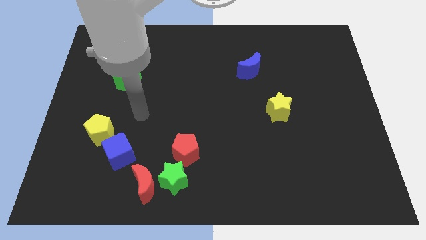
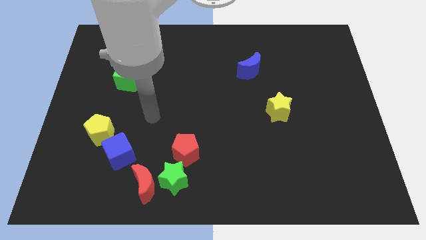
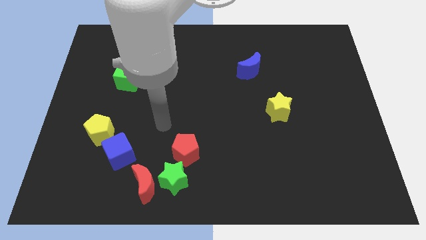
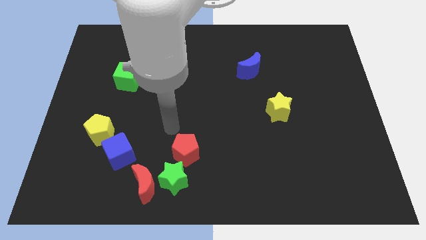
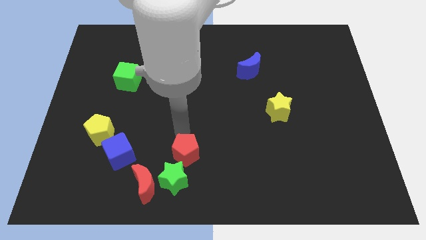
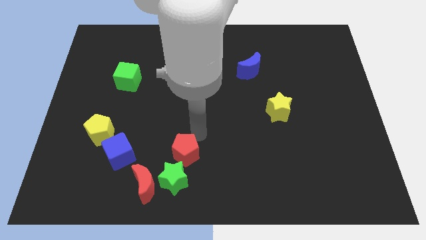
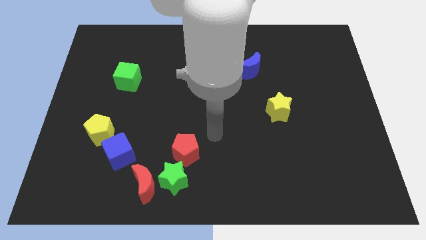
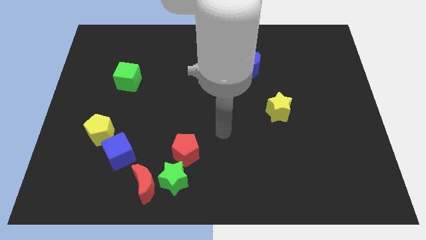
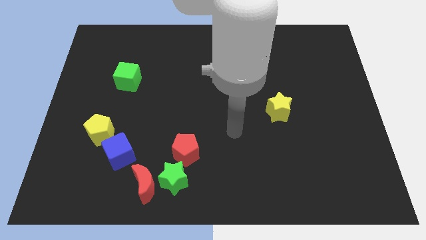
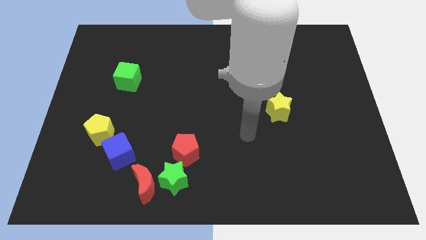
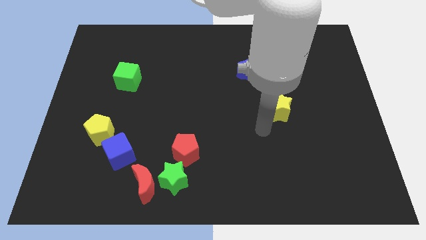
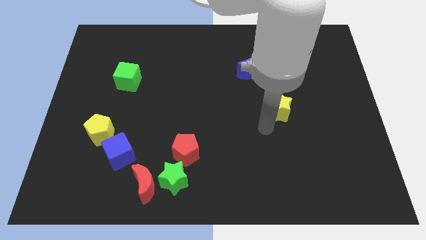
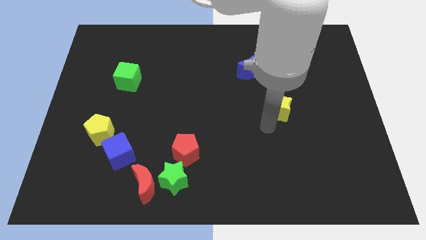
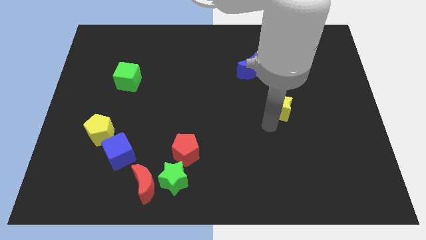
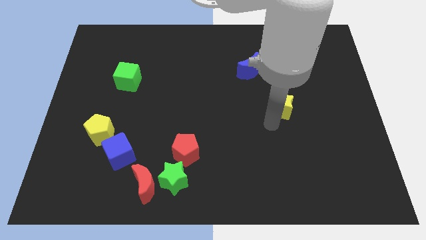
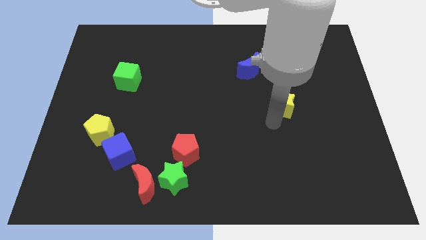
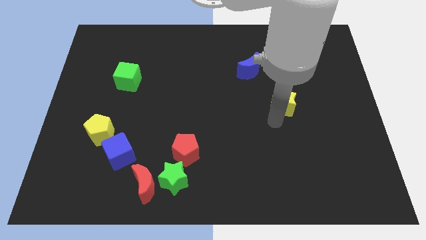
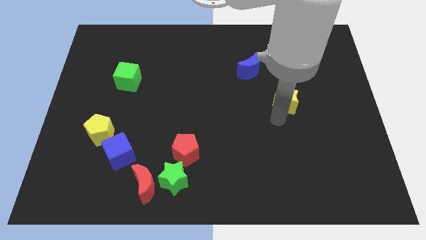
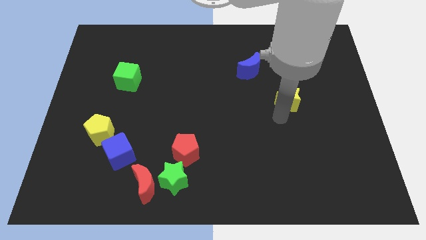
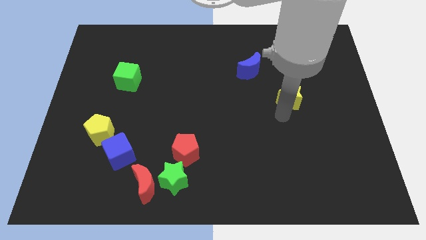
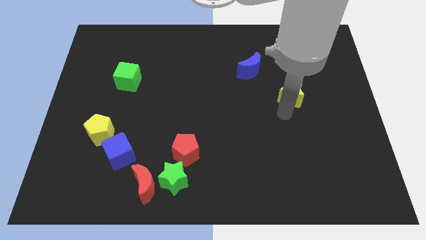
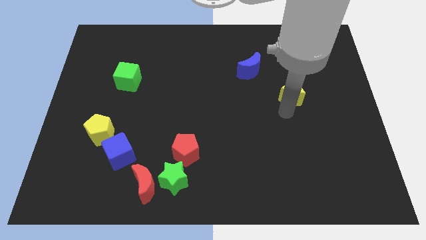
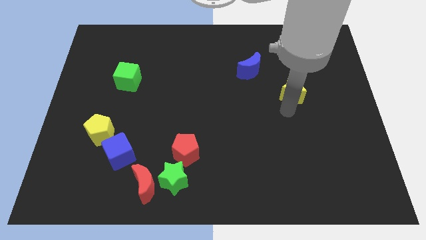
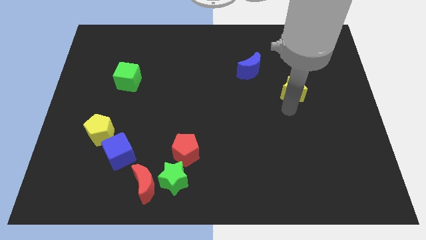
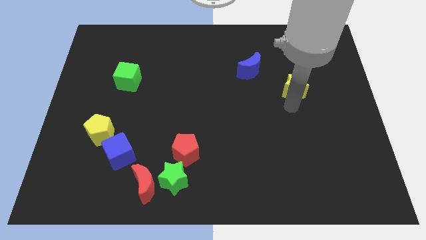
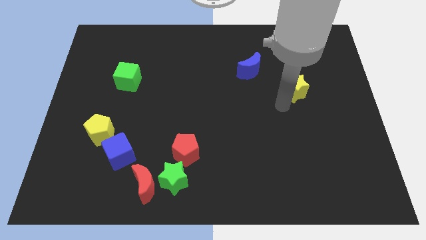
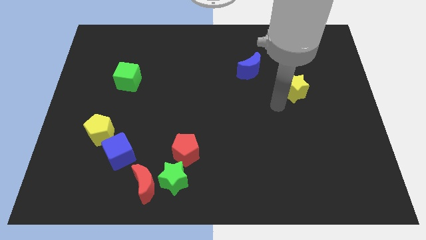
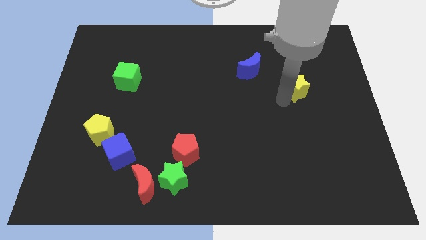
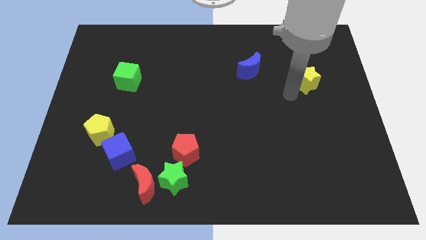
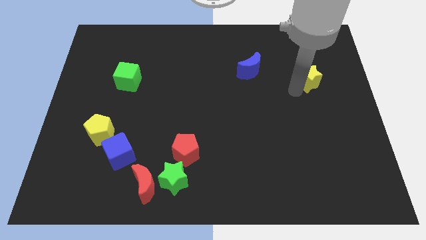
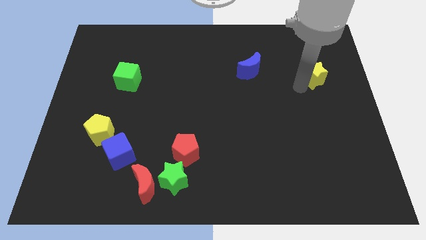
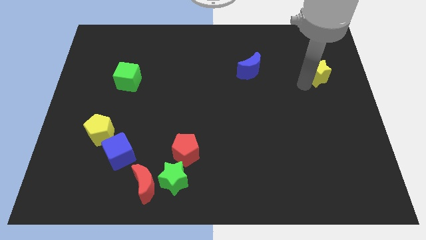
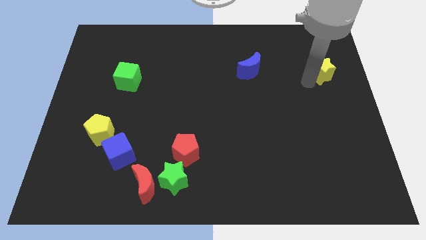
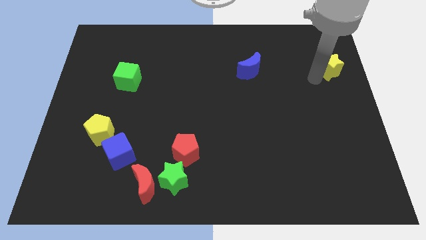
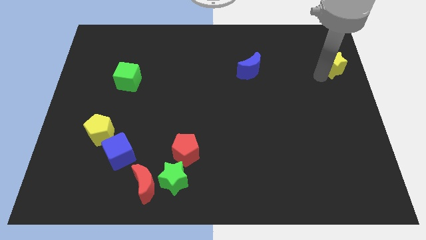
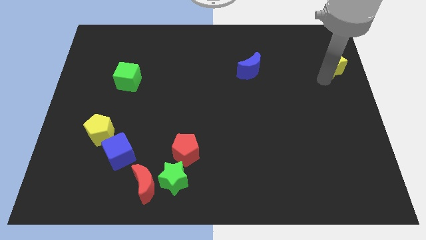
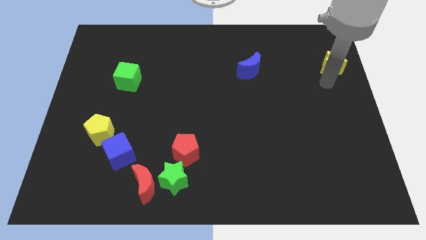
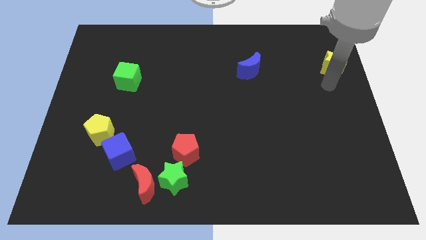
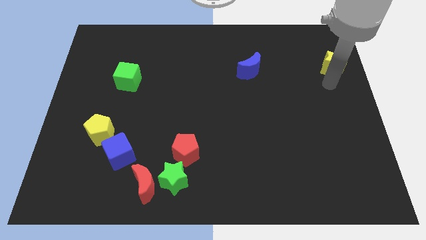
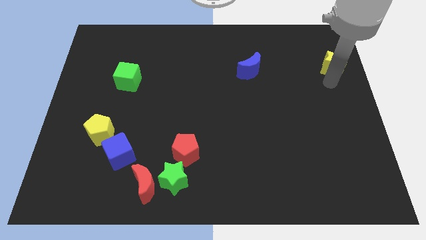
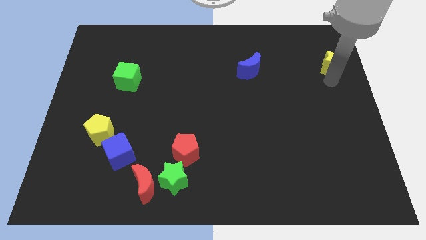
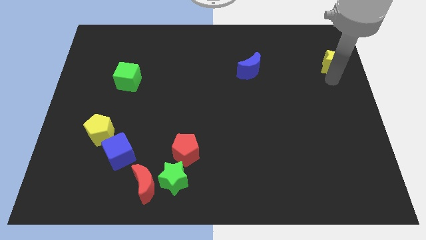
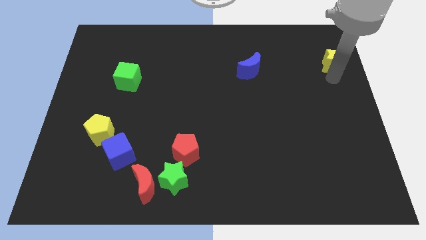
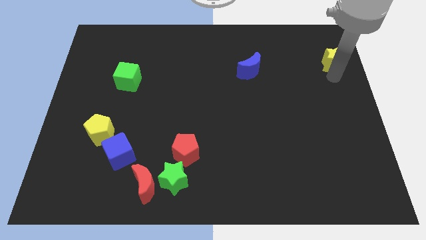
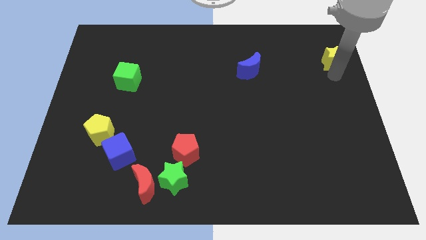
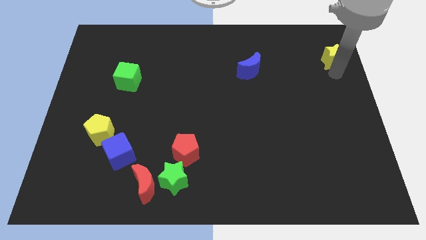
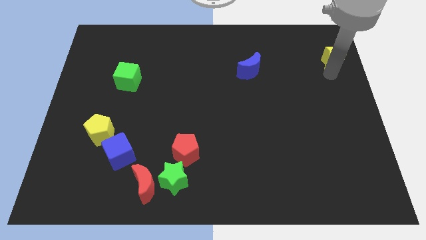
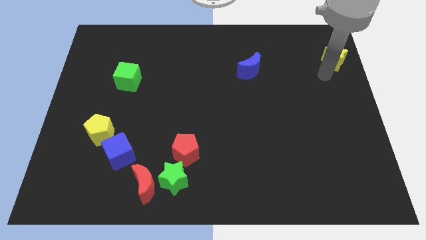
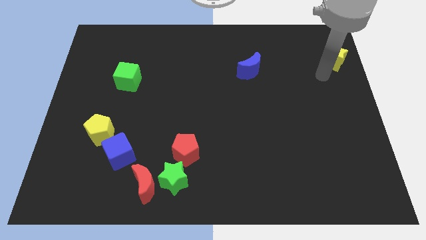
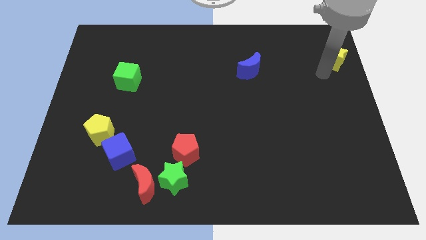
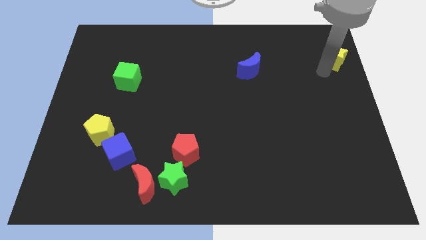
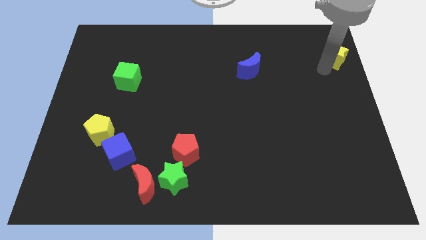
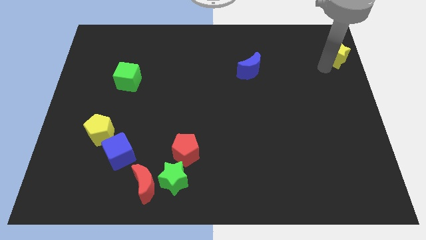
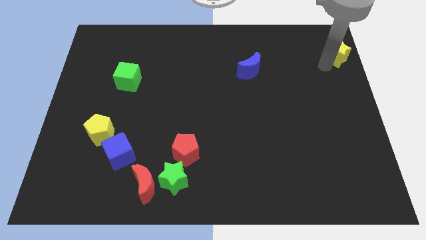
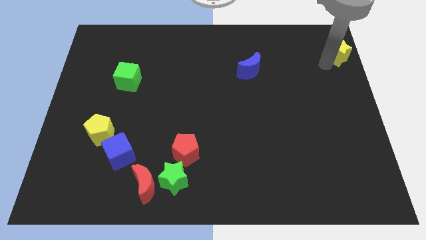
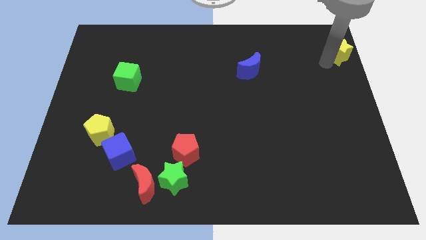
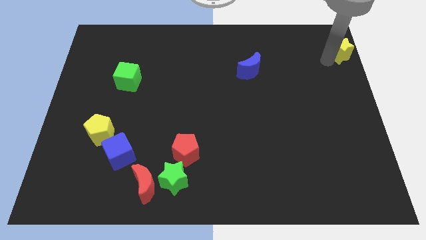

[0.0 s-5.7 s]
slide the yellow star to the top right of the board

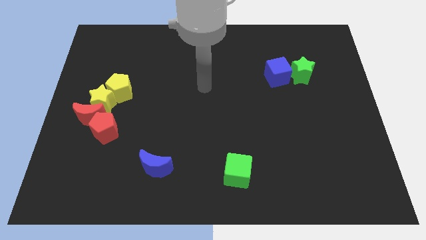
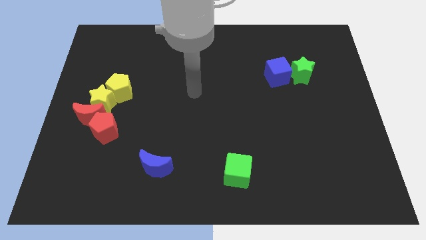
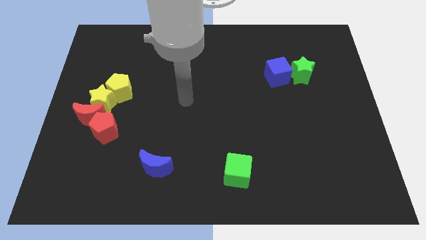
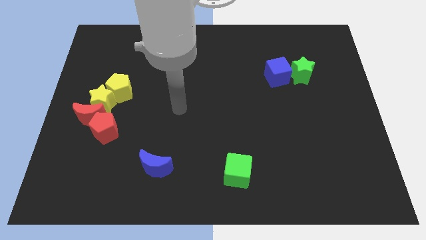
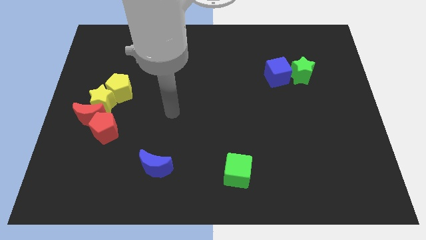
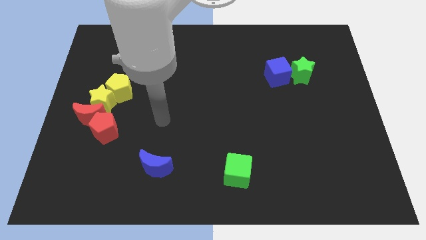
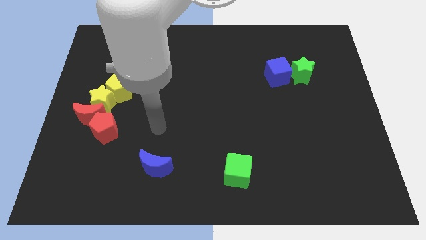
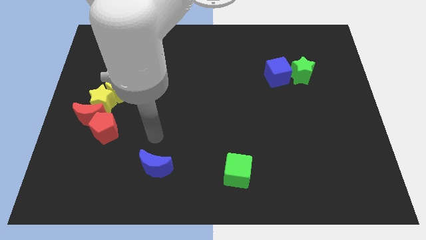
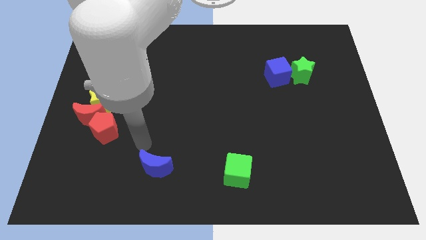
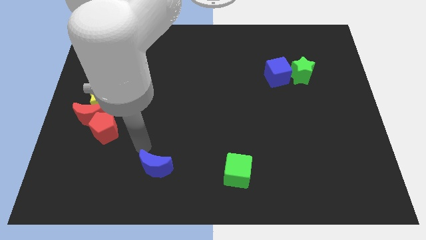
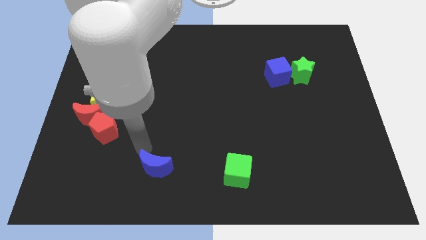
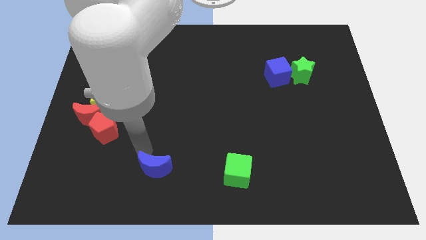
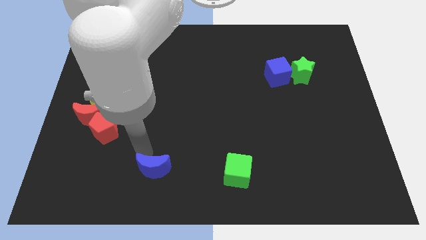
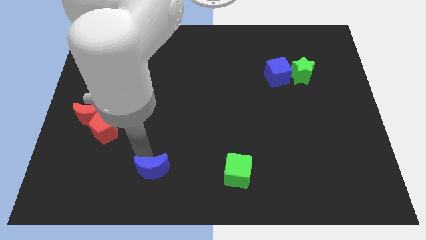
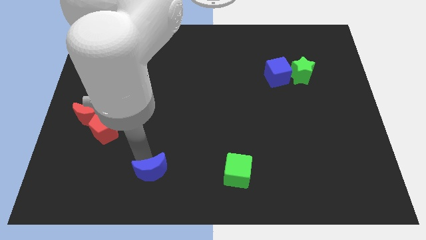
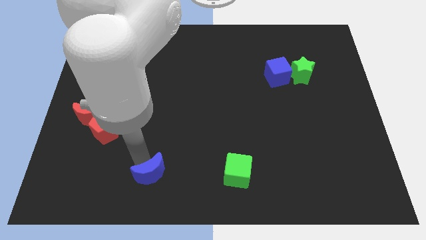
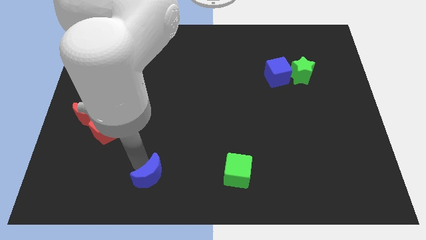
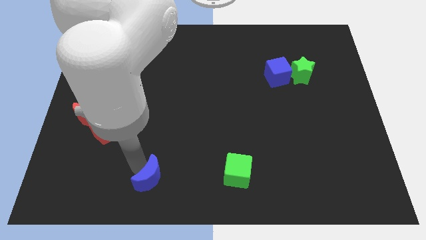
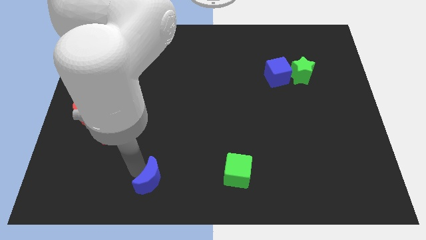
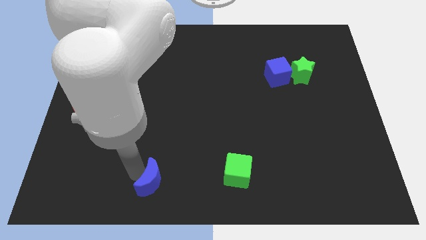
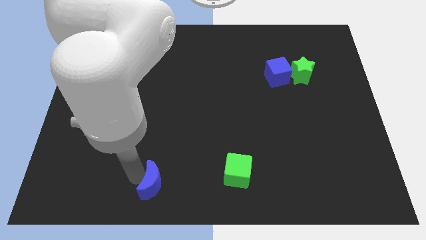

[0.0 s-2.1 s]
move the blue moon to the bottom
